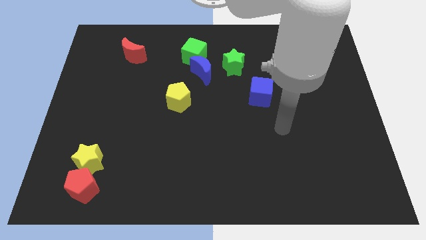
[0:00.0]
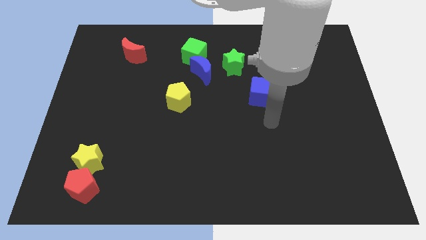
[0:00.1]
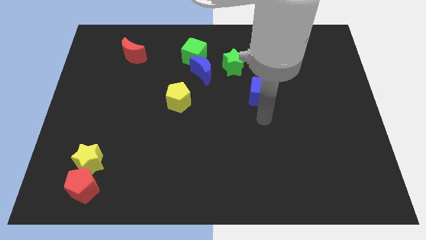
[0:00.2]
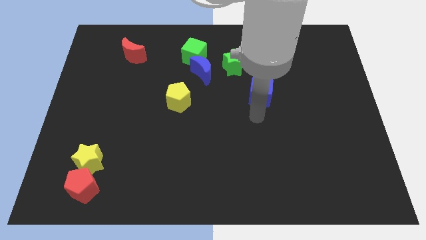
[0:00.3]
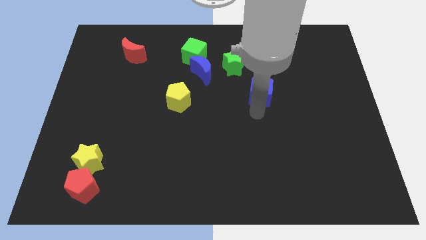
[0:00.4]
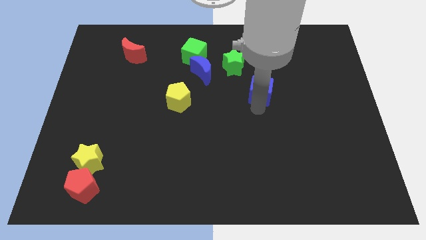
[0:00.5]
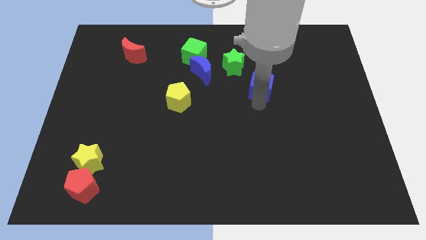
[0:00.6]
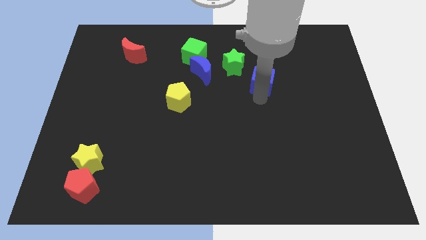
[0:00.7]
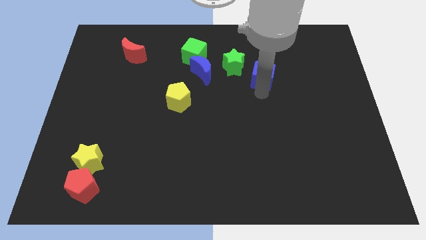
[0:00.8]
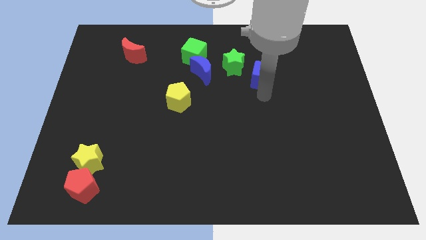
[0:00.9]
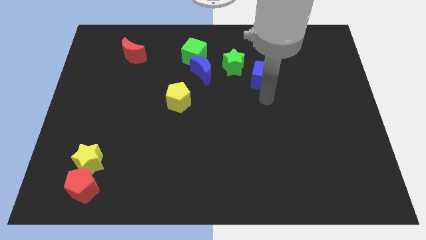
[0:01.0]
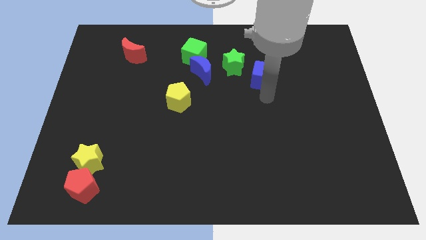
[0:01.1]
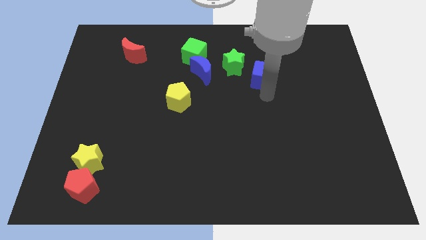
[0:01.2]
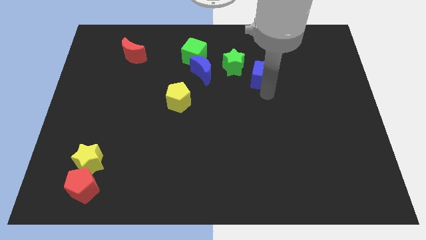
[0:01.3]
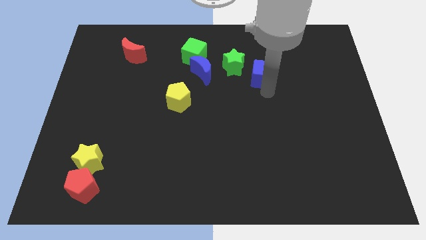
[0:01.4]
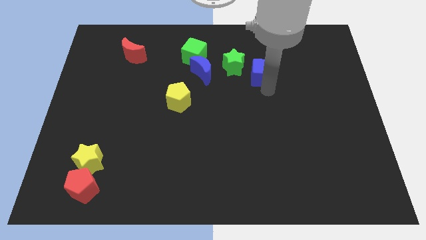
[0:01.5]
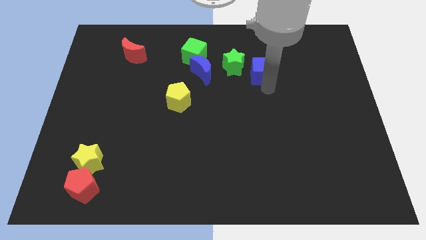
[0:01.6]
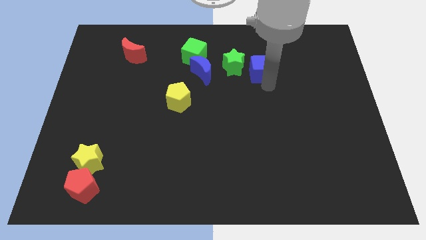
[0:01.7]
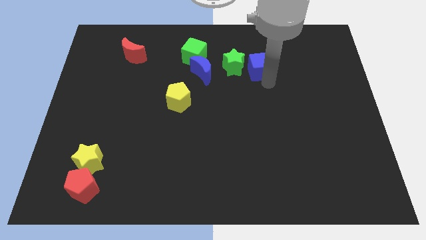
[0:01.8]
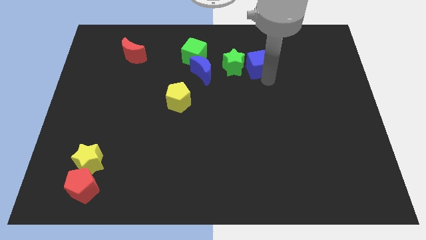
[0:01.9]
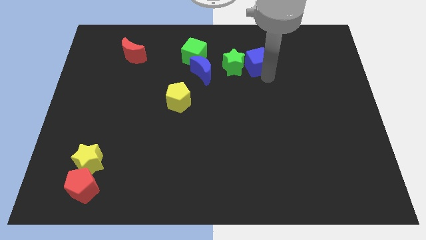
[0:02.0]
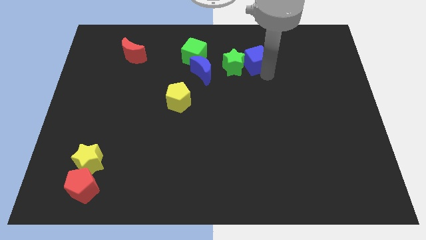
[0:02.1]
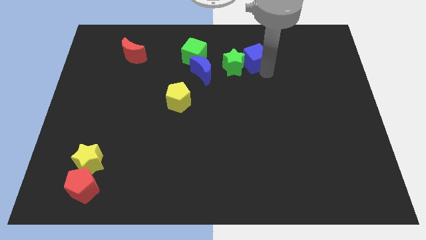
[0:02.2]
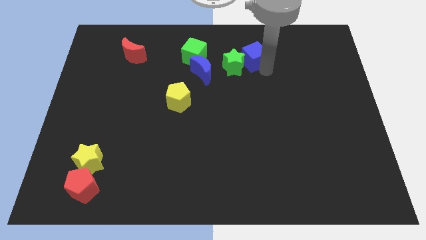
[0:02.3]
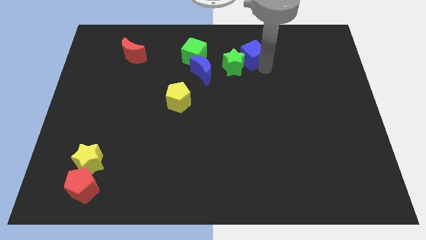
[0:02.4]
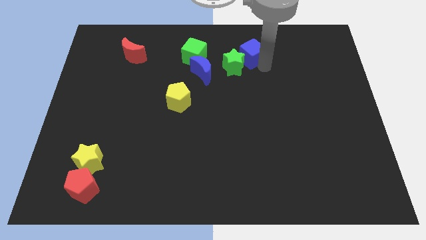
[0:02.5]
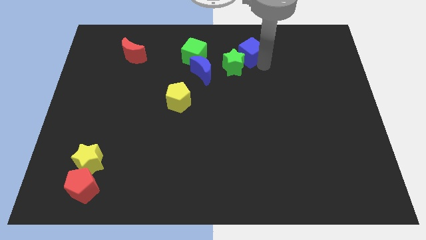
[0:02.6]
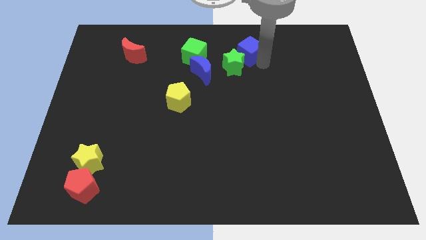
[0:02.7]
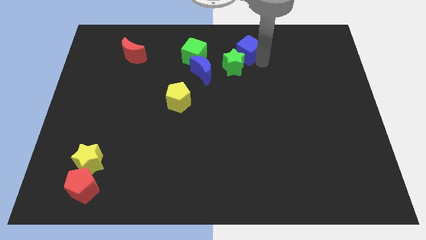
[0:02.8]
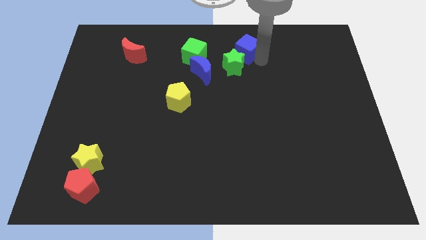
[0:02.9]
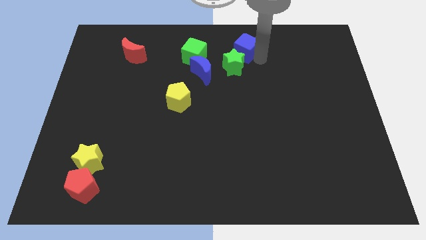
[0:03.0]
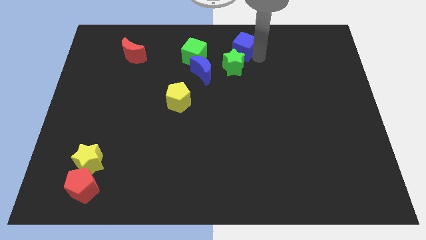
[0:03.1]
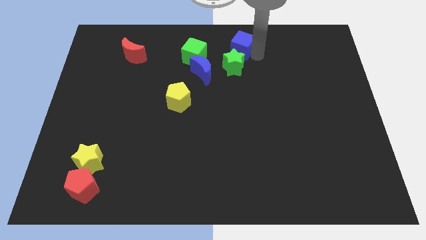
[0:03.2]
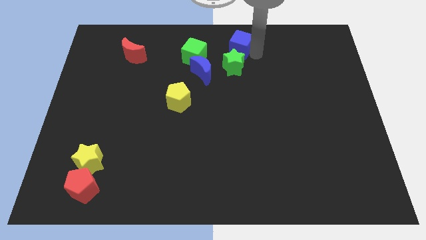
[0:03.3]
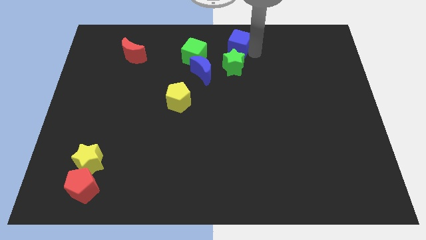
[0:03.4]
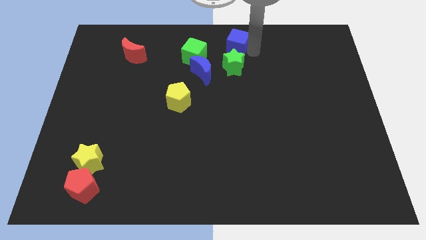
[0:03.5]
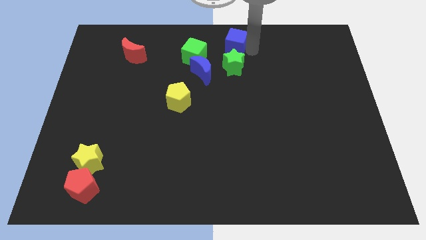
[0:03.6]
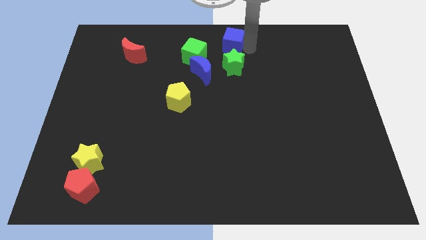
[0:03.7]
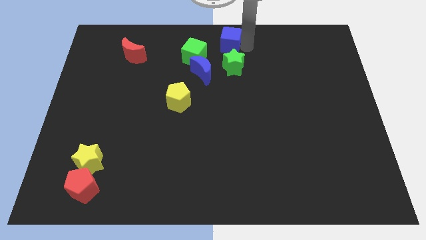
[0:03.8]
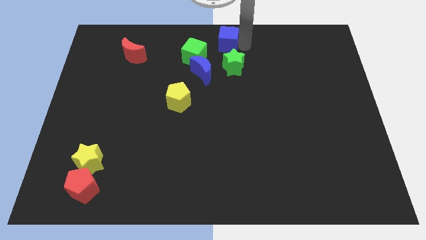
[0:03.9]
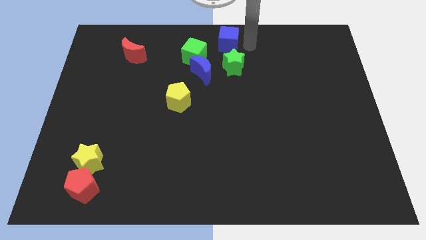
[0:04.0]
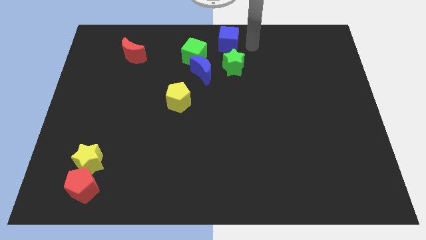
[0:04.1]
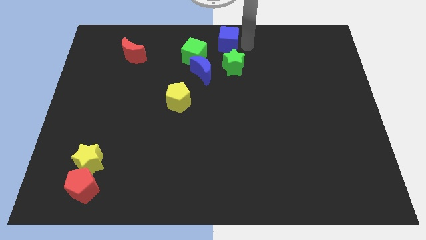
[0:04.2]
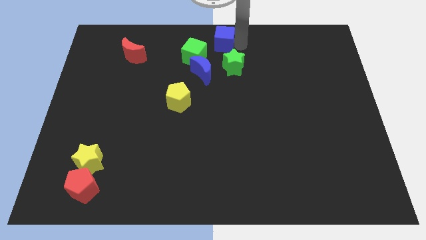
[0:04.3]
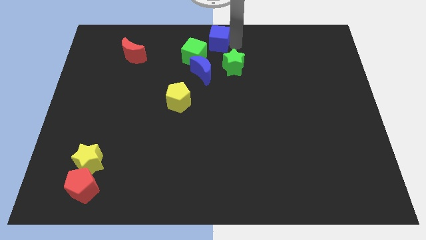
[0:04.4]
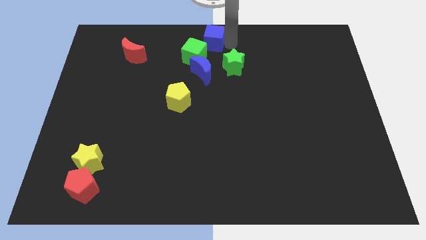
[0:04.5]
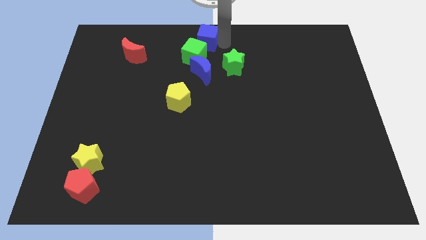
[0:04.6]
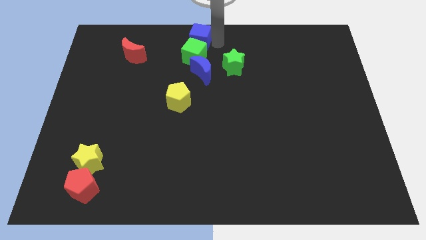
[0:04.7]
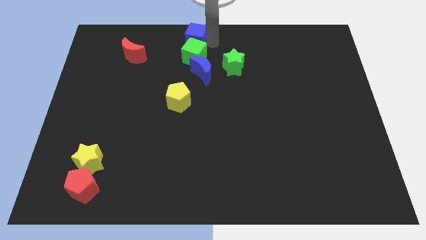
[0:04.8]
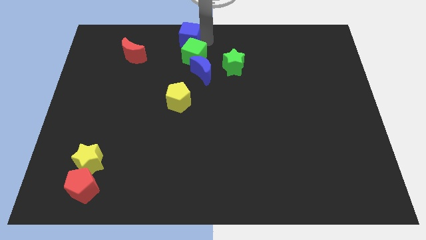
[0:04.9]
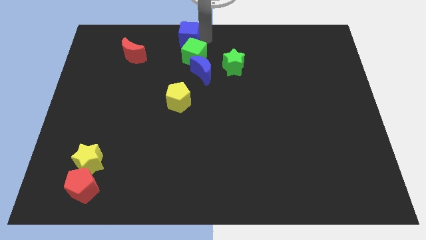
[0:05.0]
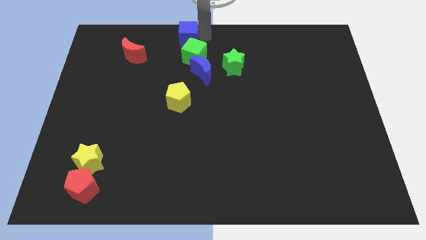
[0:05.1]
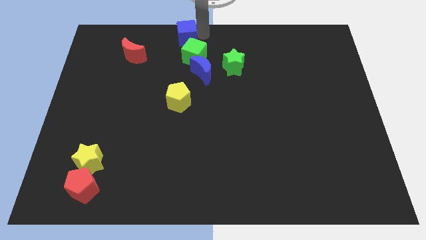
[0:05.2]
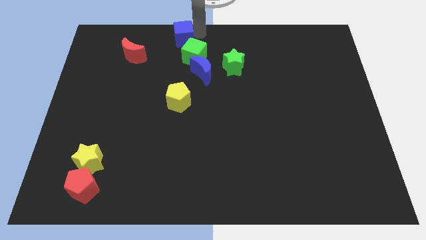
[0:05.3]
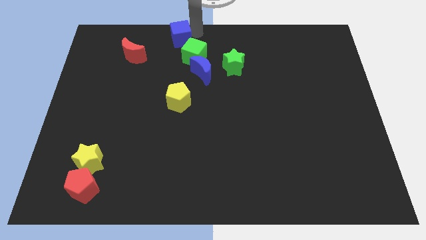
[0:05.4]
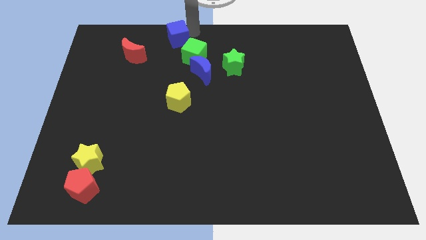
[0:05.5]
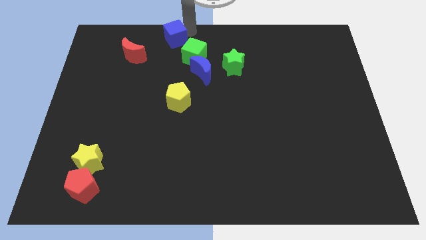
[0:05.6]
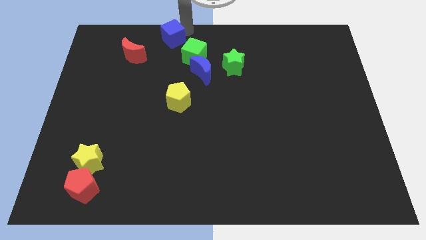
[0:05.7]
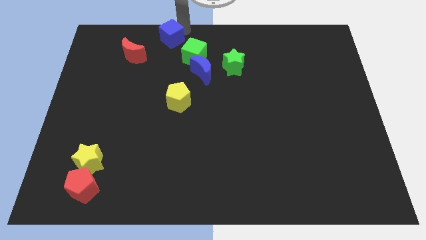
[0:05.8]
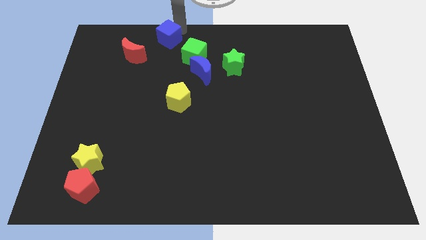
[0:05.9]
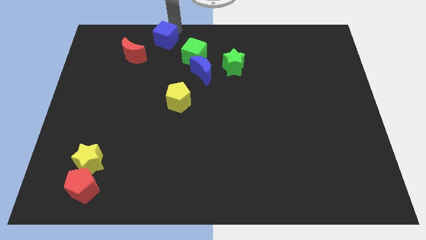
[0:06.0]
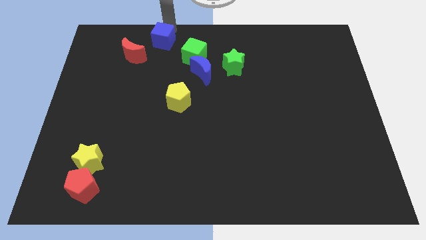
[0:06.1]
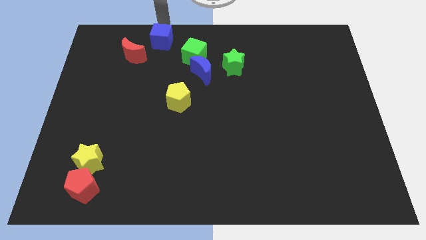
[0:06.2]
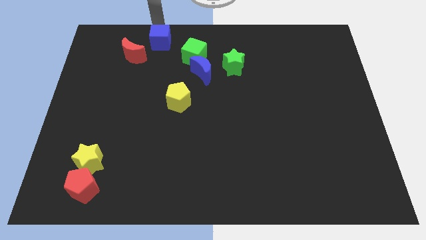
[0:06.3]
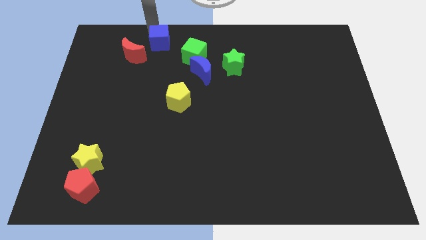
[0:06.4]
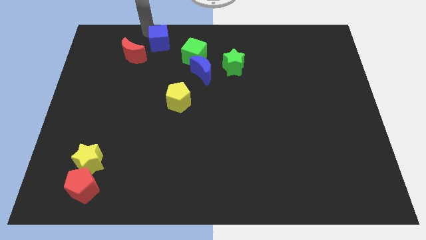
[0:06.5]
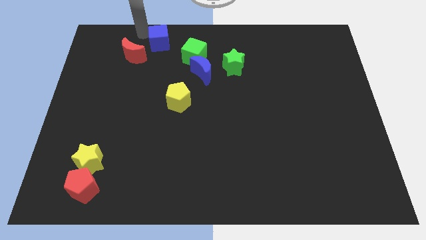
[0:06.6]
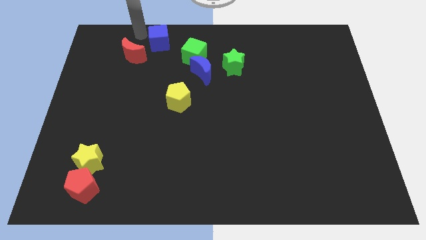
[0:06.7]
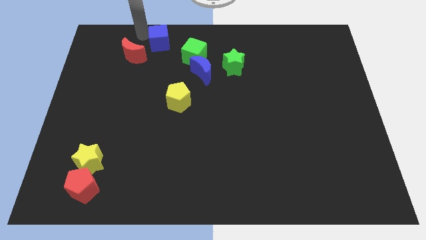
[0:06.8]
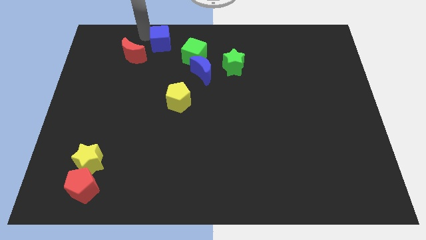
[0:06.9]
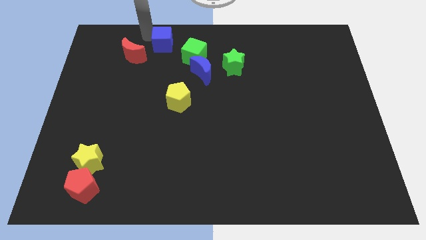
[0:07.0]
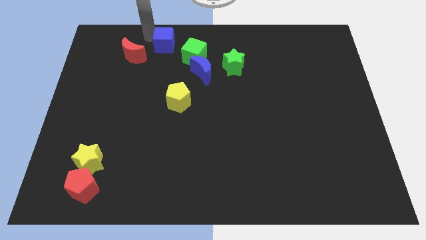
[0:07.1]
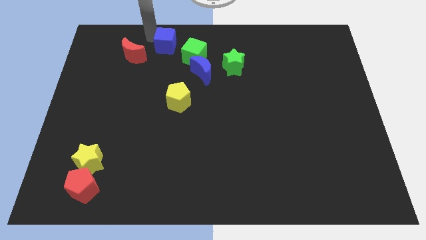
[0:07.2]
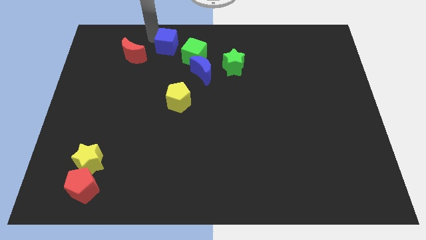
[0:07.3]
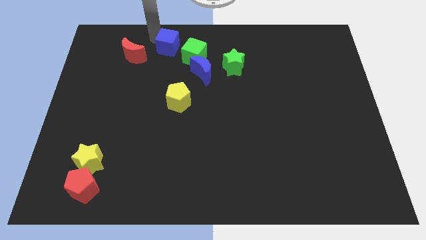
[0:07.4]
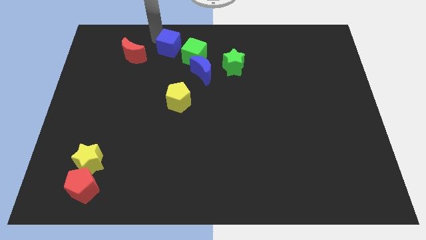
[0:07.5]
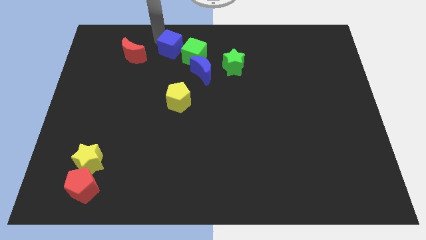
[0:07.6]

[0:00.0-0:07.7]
slide the blue cube diagonally up and to the left of the blue moon
